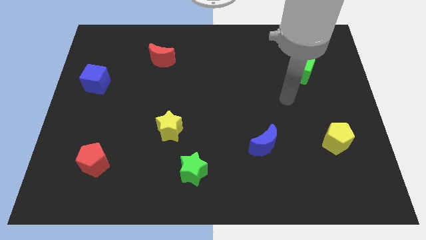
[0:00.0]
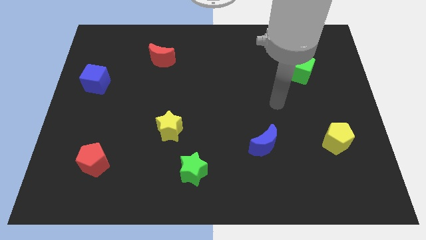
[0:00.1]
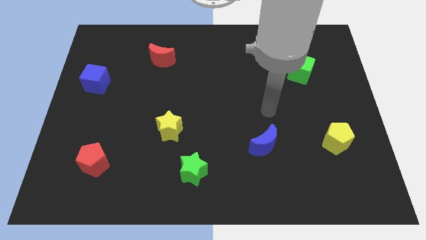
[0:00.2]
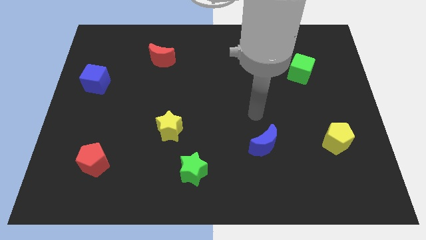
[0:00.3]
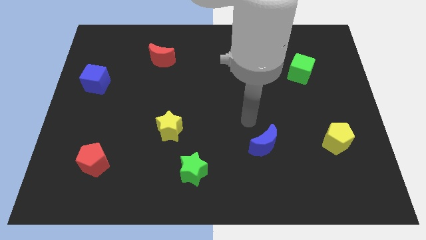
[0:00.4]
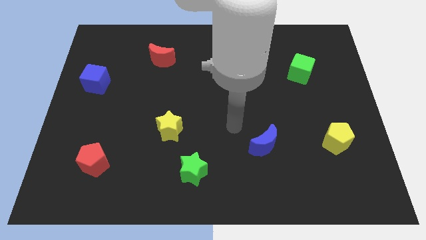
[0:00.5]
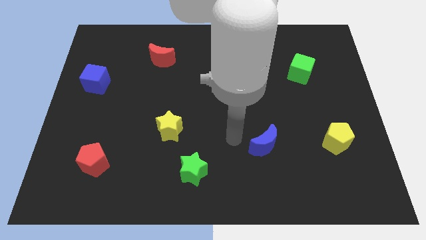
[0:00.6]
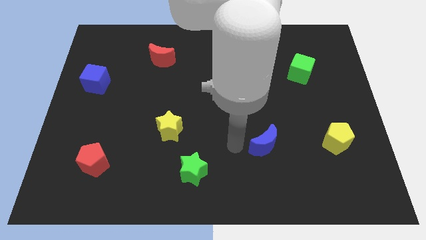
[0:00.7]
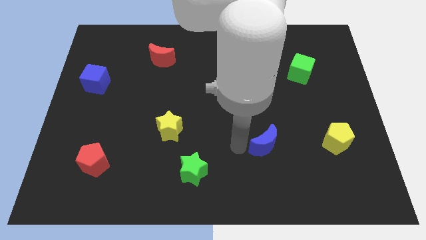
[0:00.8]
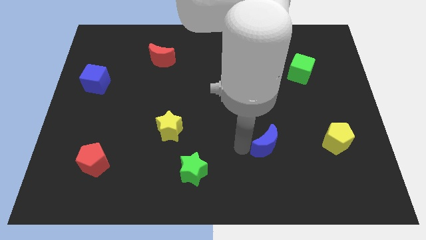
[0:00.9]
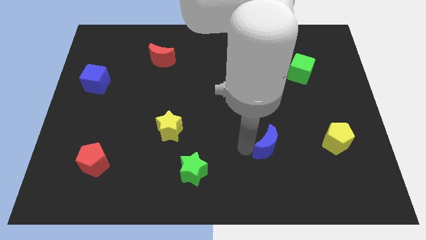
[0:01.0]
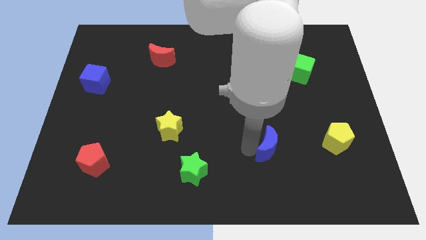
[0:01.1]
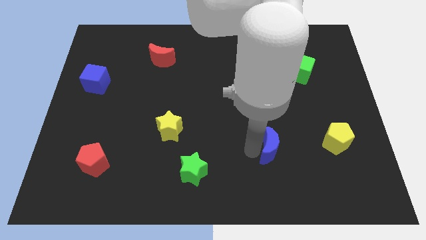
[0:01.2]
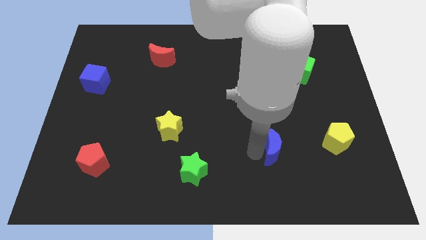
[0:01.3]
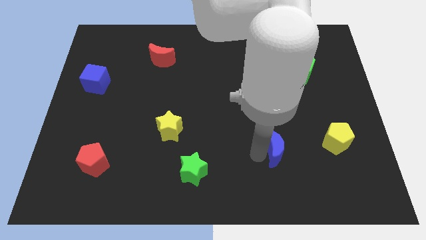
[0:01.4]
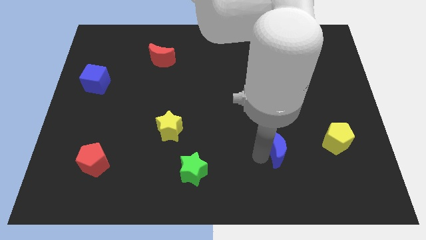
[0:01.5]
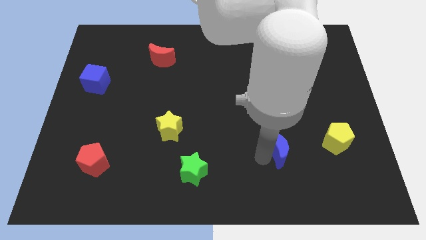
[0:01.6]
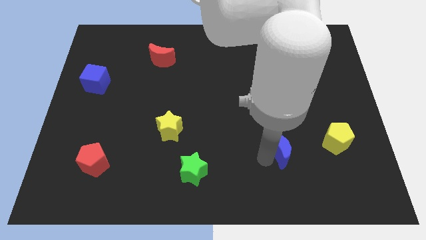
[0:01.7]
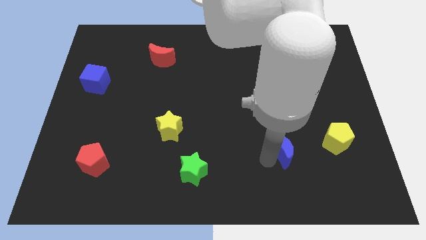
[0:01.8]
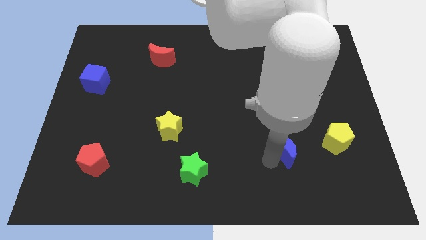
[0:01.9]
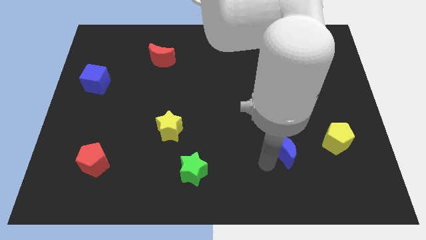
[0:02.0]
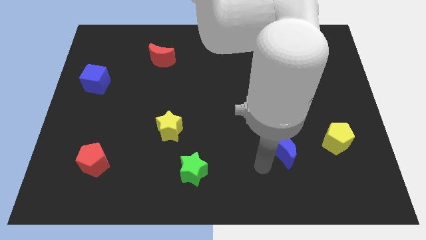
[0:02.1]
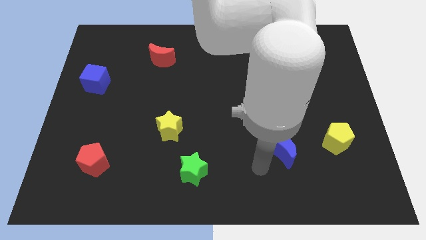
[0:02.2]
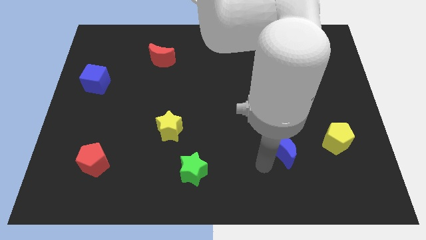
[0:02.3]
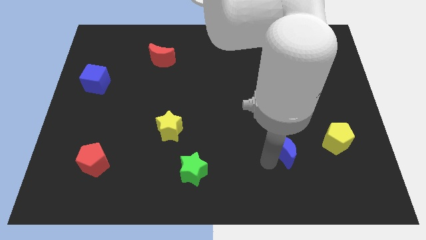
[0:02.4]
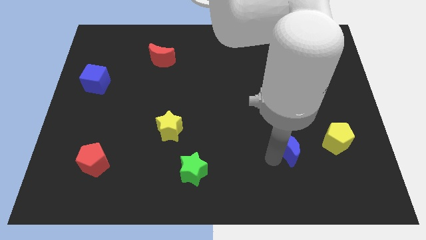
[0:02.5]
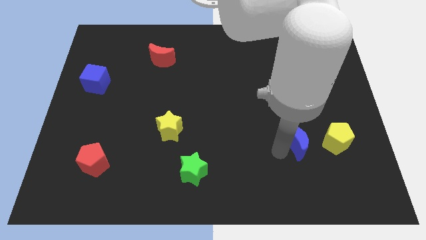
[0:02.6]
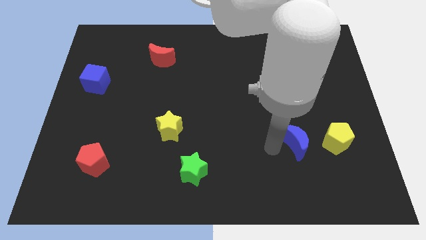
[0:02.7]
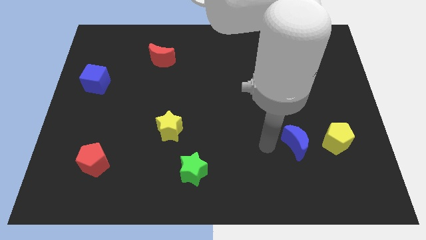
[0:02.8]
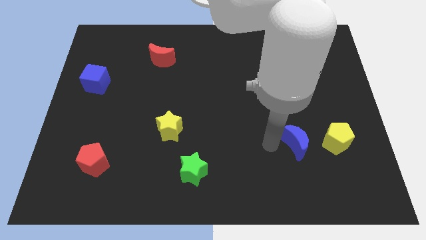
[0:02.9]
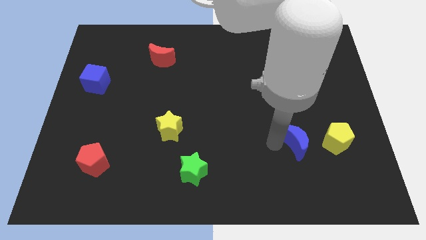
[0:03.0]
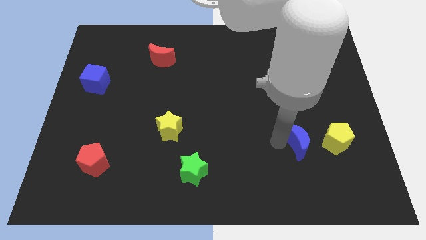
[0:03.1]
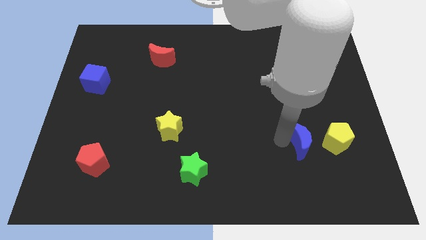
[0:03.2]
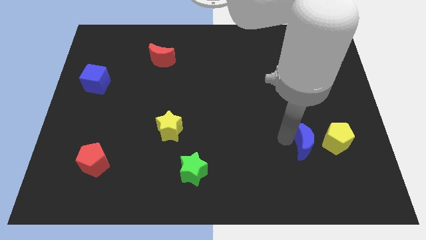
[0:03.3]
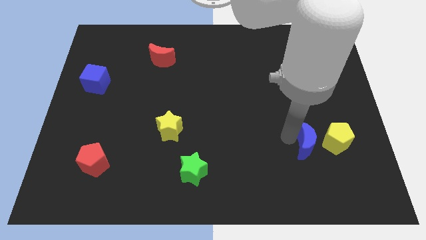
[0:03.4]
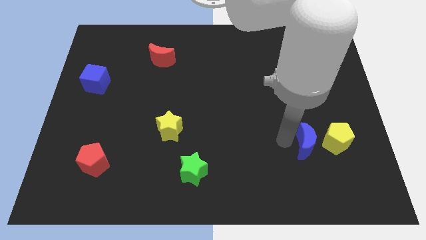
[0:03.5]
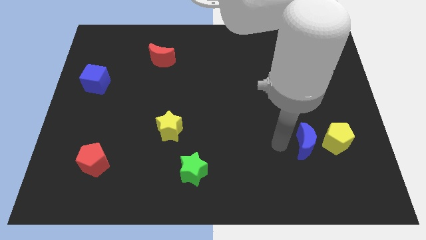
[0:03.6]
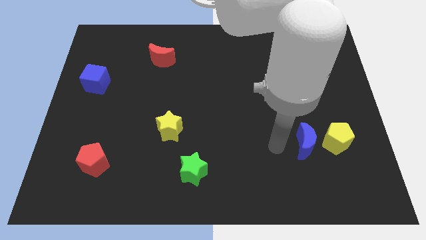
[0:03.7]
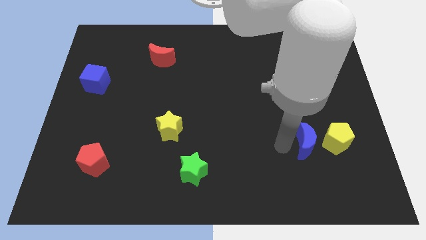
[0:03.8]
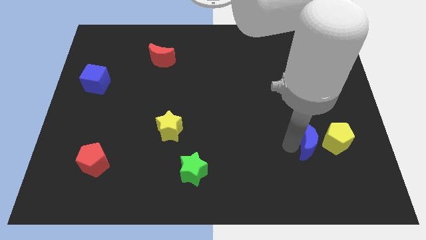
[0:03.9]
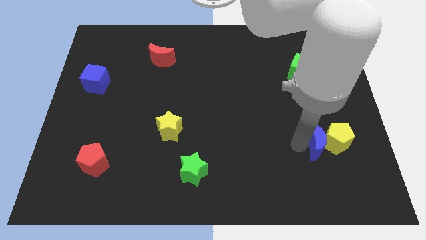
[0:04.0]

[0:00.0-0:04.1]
slide the blue moon to the yellow pentagon

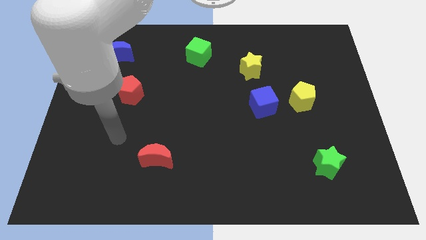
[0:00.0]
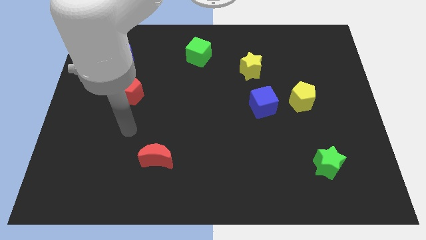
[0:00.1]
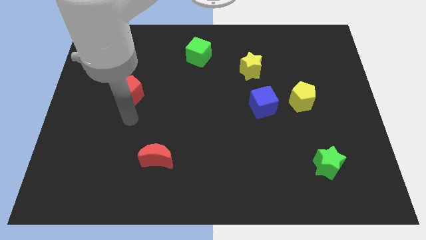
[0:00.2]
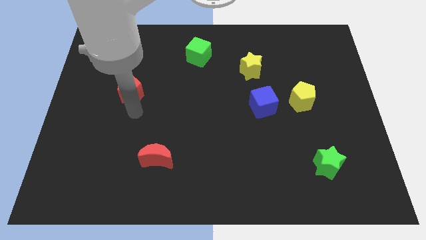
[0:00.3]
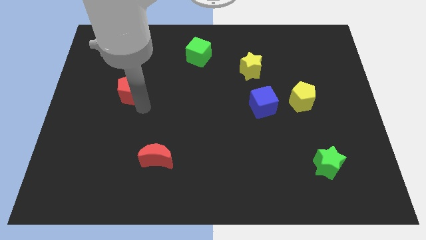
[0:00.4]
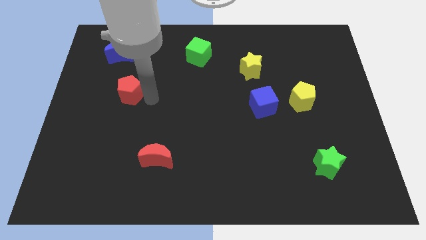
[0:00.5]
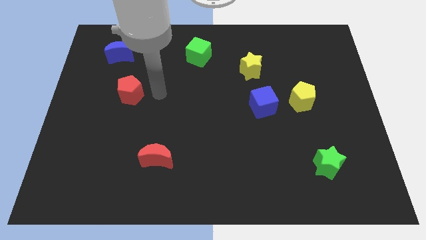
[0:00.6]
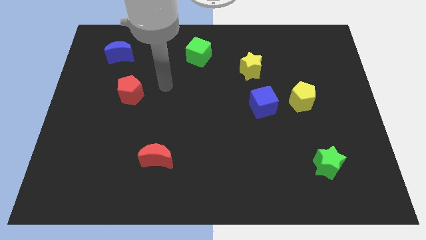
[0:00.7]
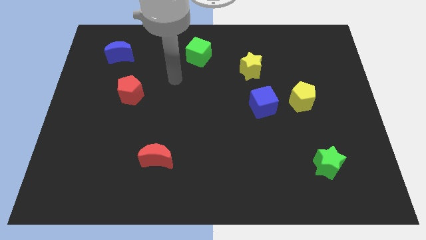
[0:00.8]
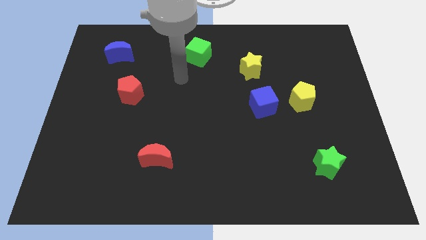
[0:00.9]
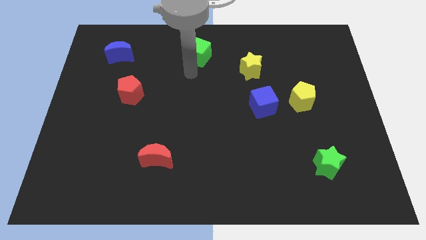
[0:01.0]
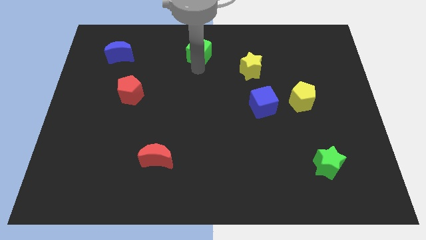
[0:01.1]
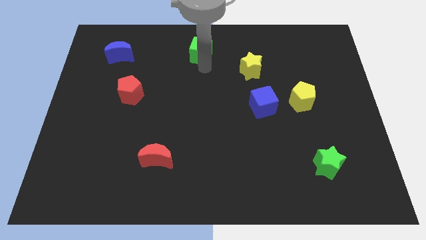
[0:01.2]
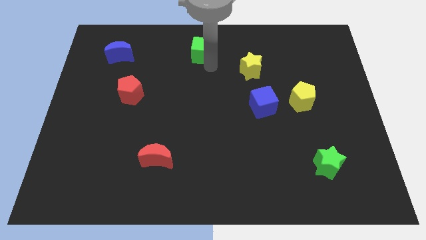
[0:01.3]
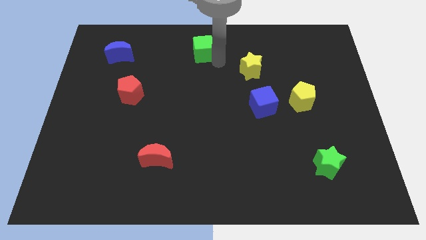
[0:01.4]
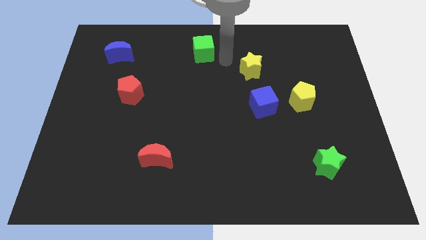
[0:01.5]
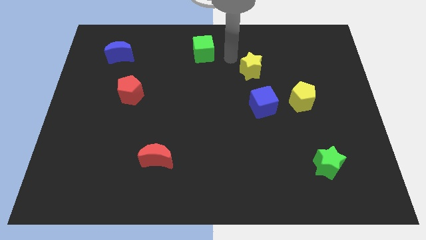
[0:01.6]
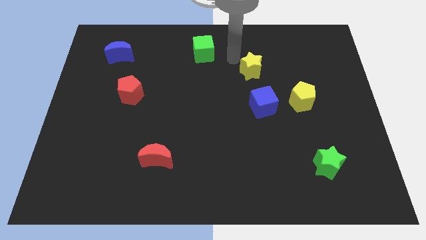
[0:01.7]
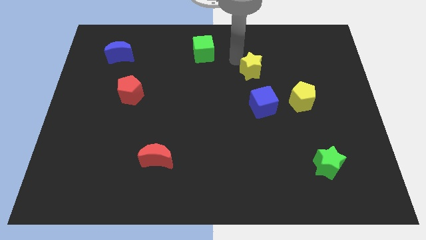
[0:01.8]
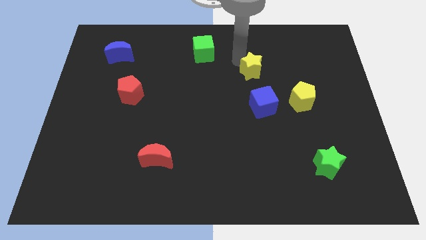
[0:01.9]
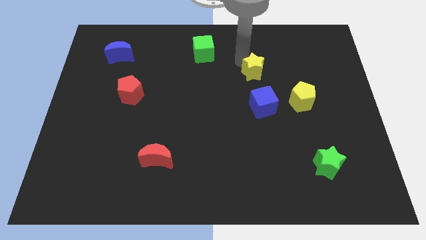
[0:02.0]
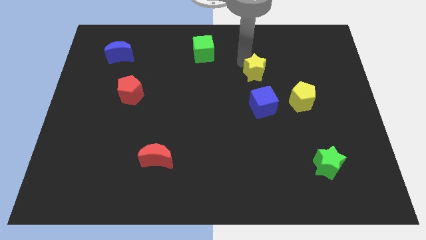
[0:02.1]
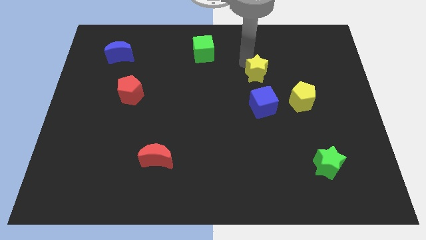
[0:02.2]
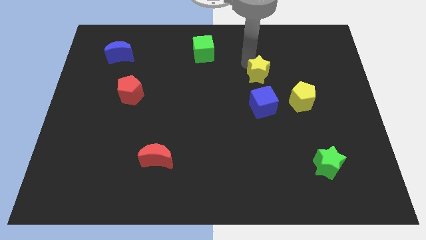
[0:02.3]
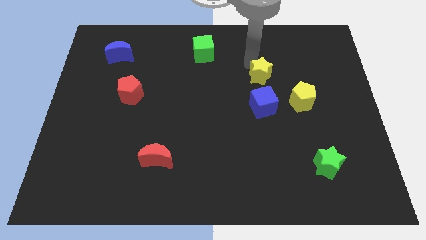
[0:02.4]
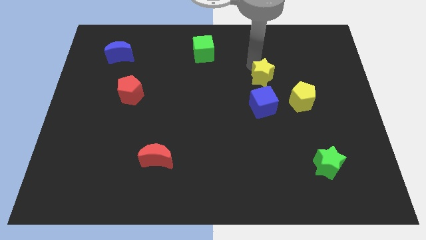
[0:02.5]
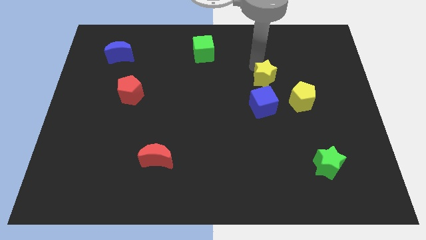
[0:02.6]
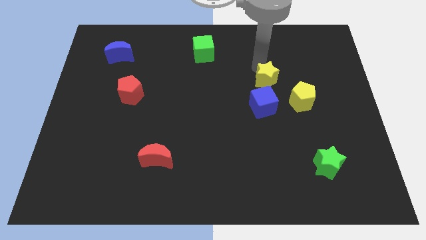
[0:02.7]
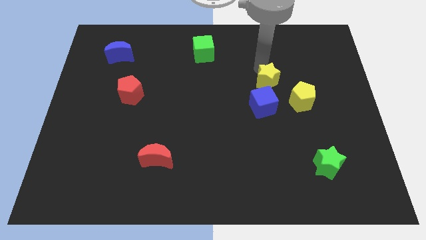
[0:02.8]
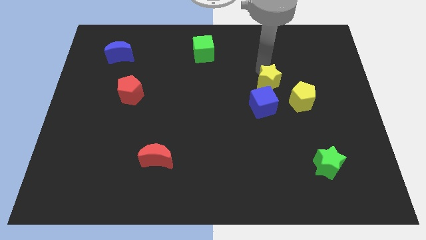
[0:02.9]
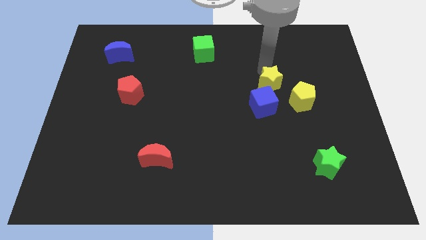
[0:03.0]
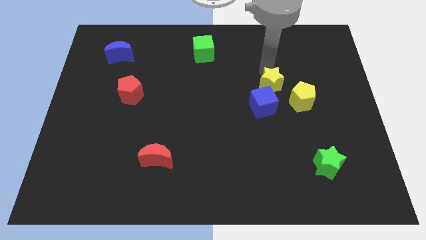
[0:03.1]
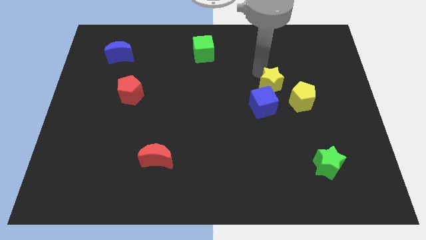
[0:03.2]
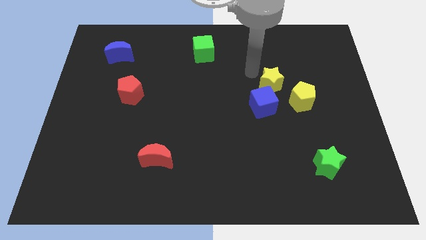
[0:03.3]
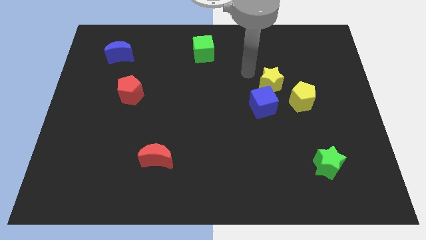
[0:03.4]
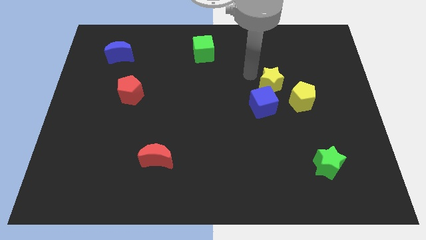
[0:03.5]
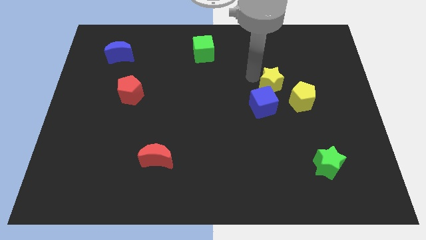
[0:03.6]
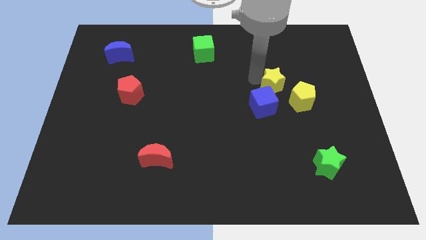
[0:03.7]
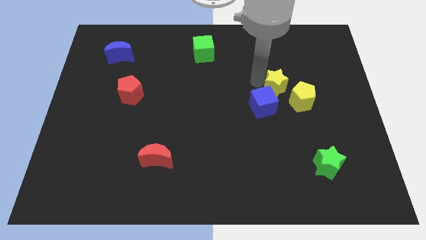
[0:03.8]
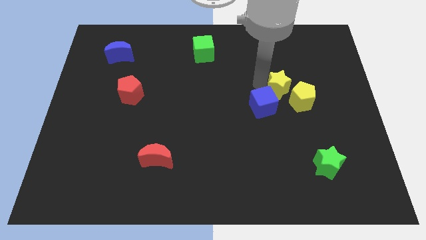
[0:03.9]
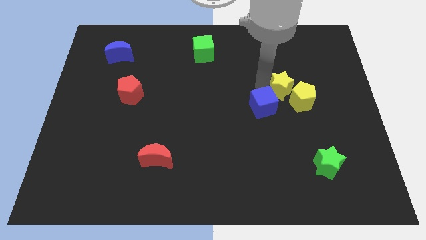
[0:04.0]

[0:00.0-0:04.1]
move the yellow star next to the yellow pentagon
